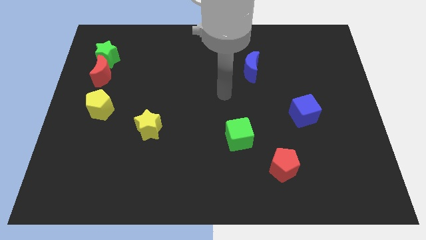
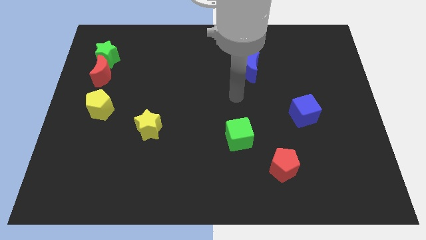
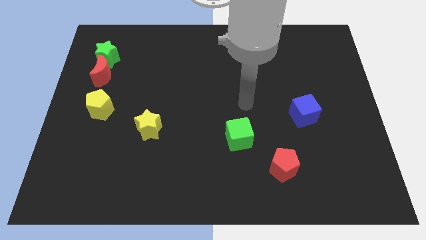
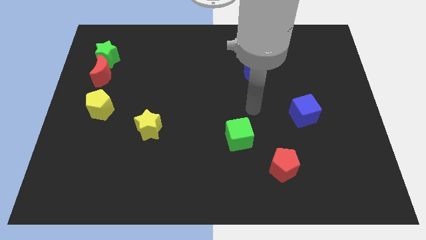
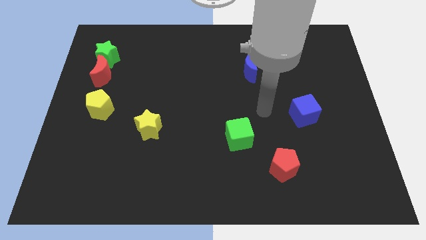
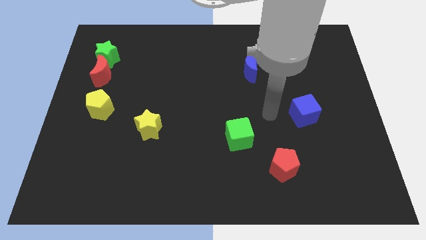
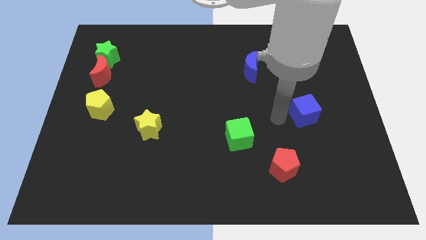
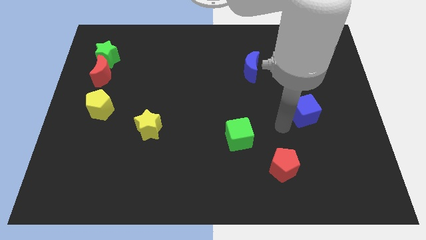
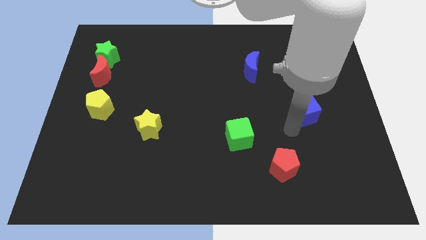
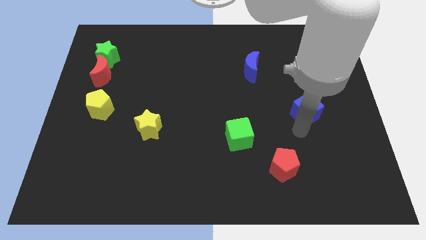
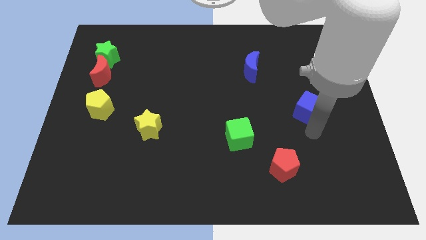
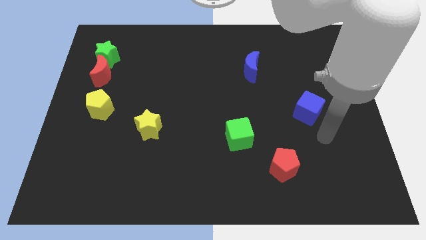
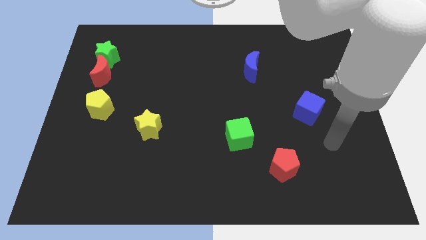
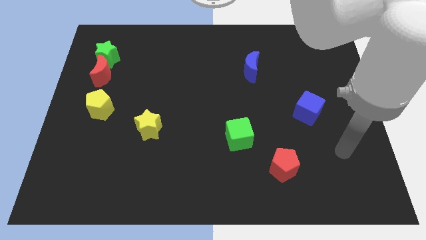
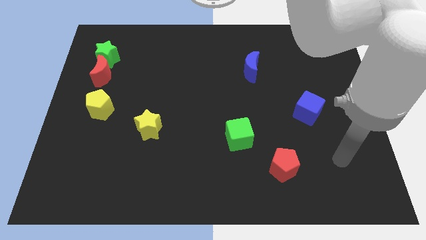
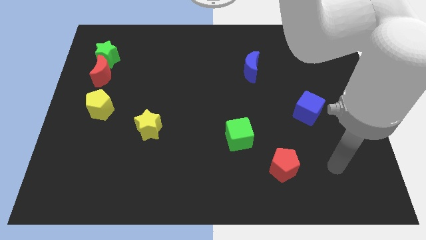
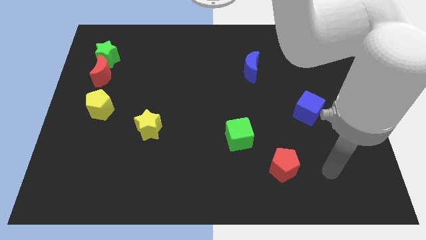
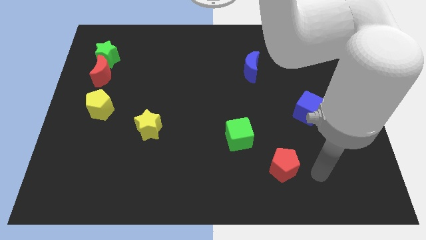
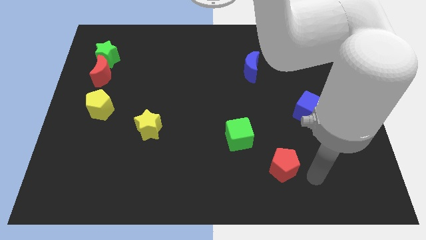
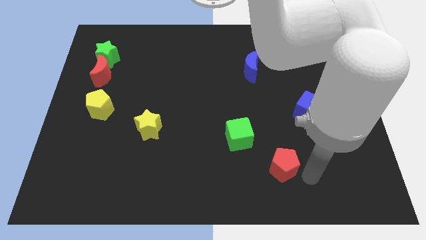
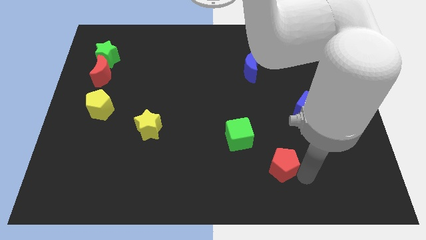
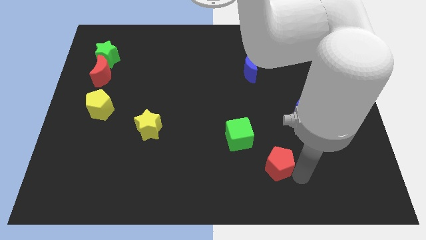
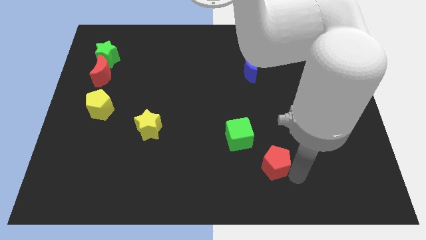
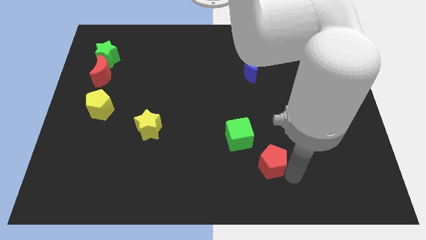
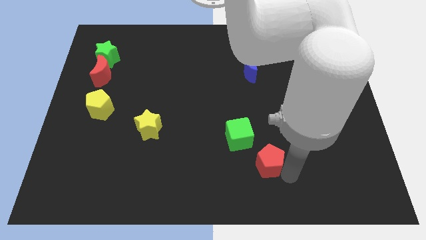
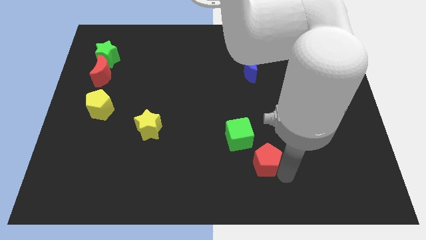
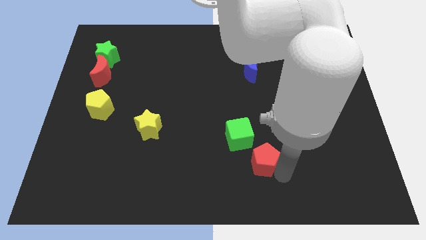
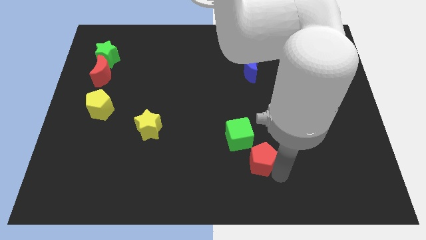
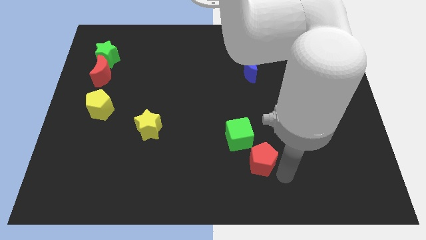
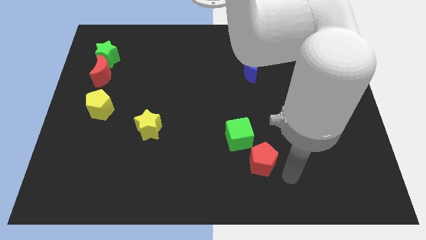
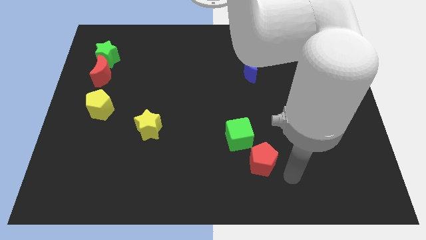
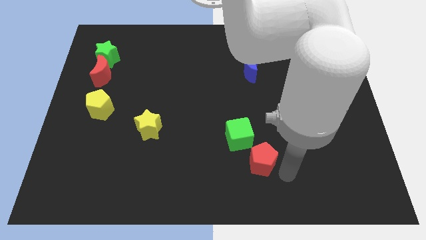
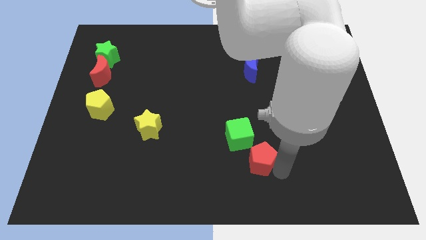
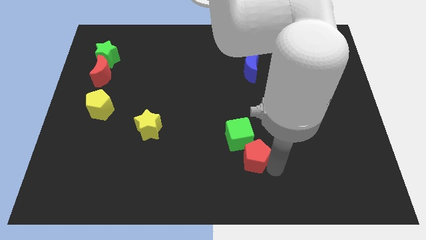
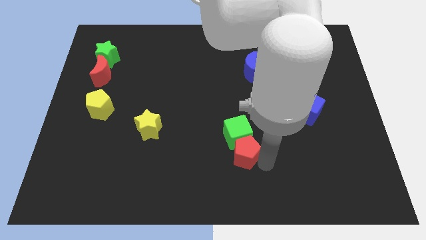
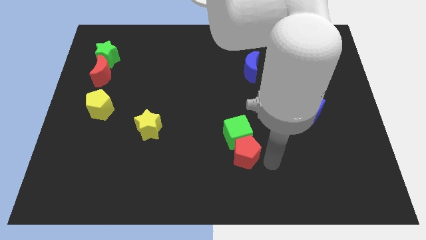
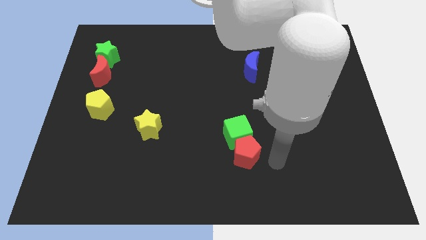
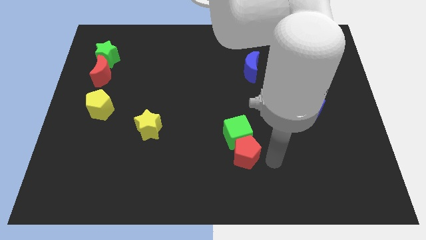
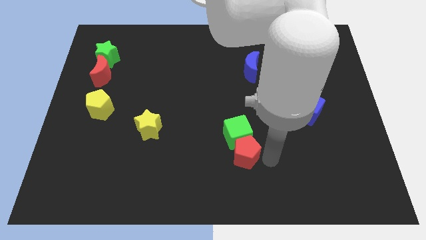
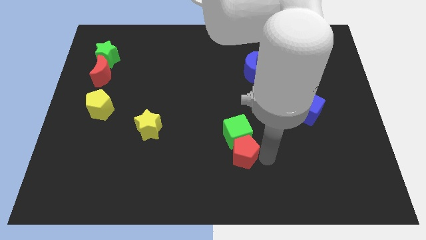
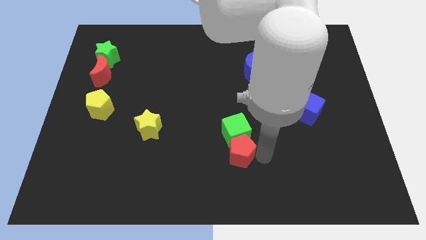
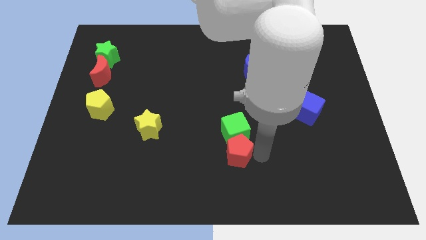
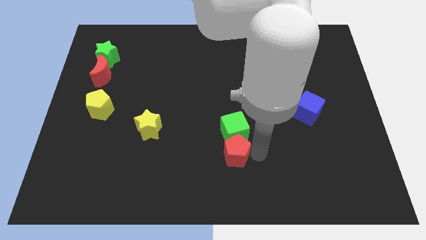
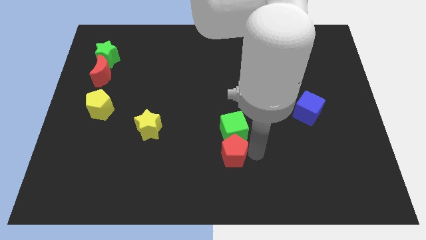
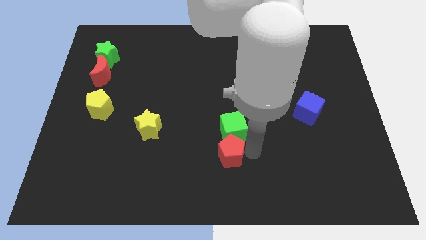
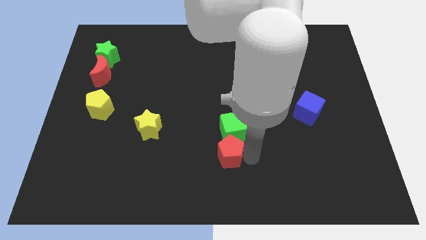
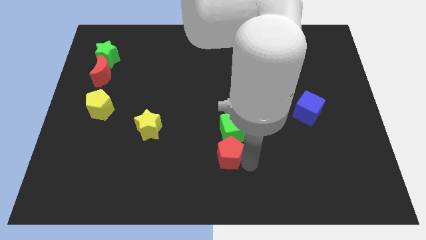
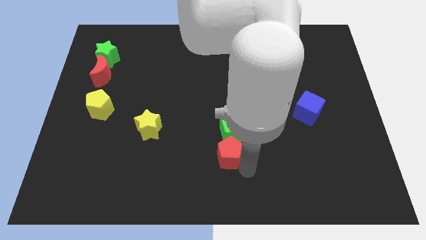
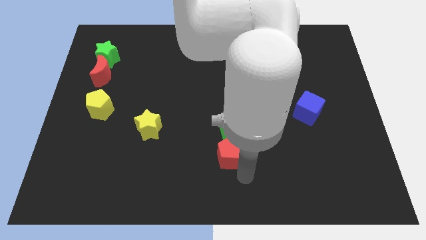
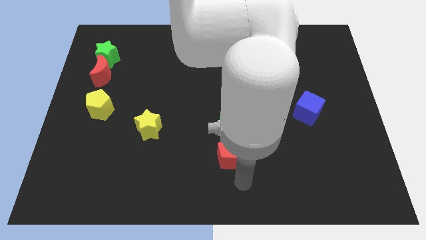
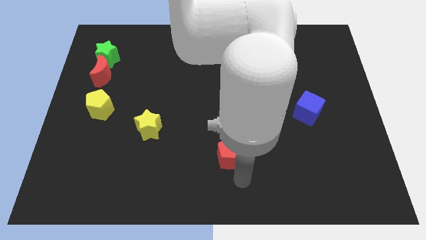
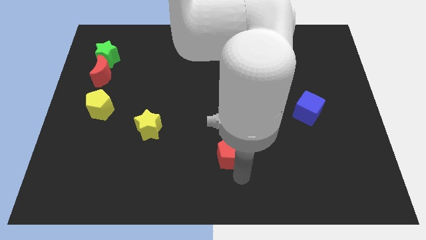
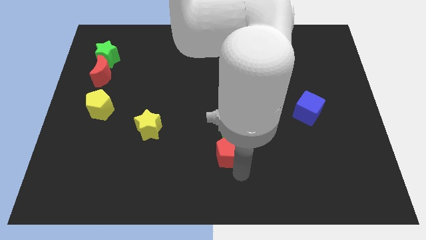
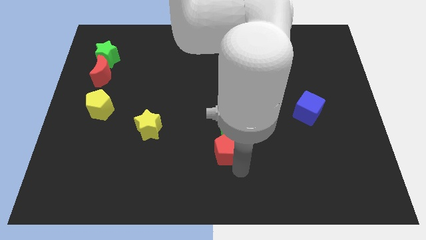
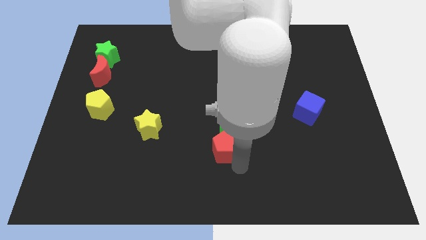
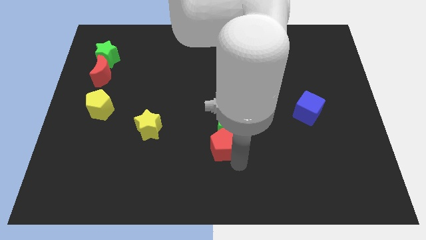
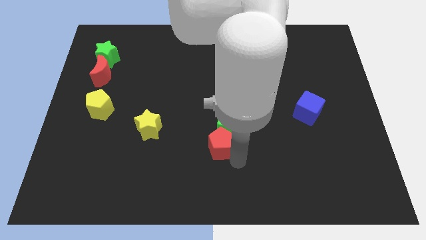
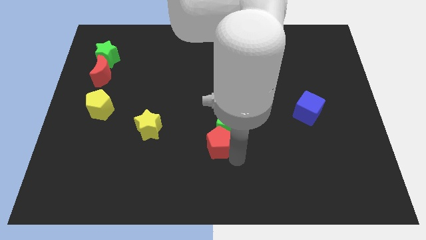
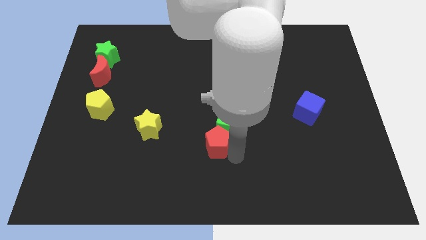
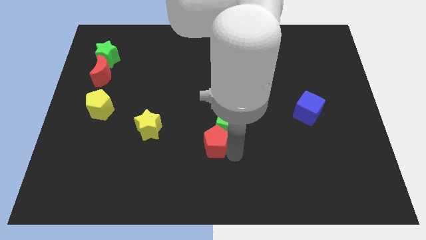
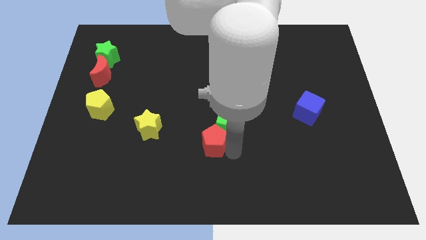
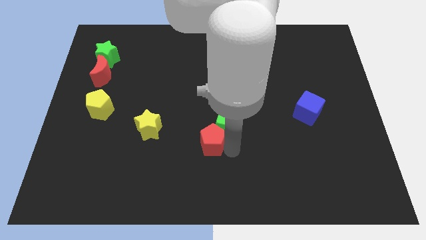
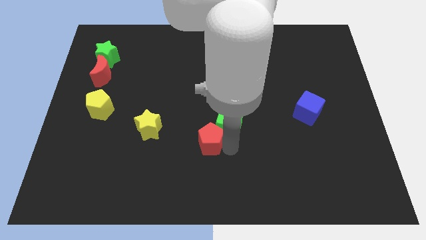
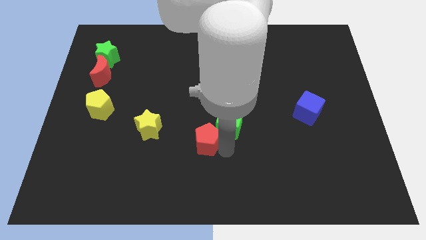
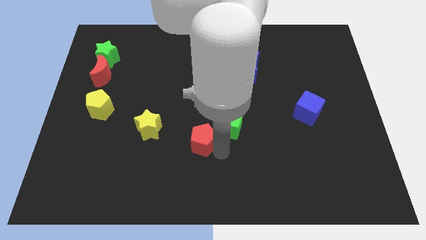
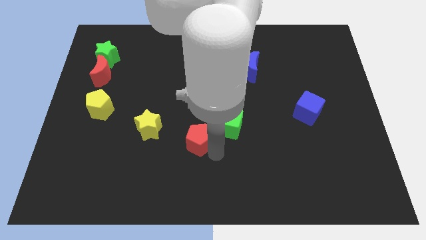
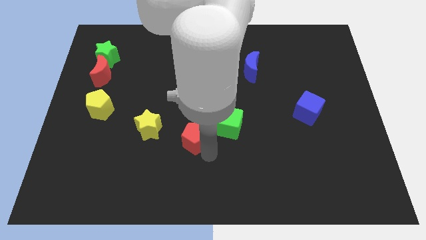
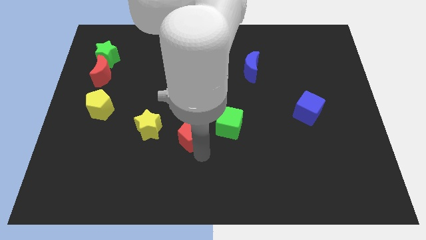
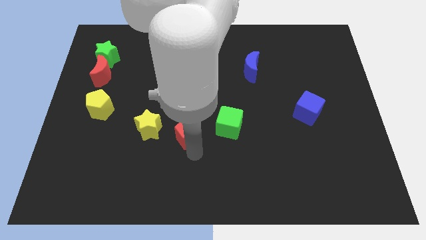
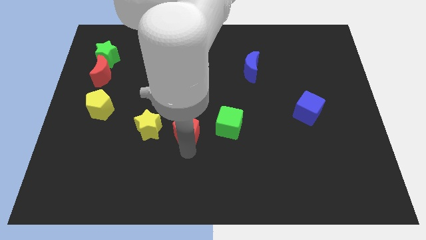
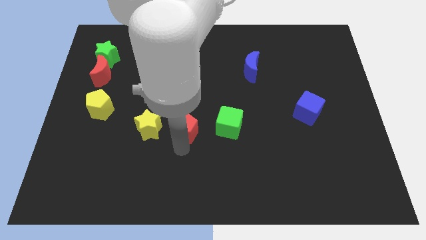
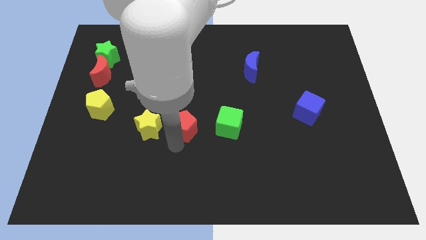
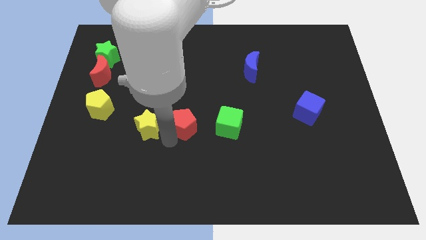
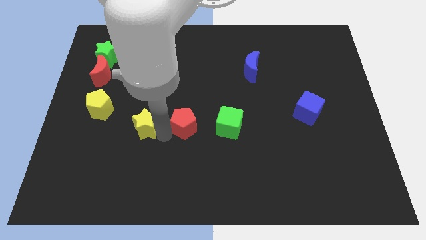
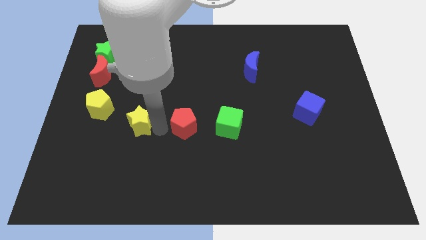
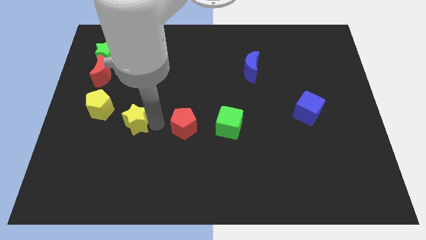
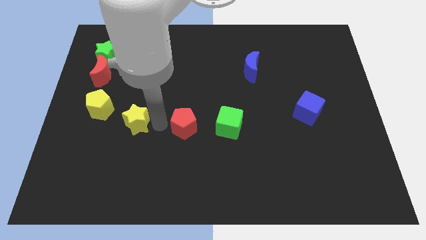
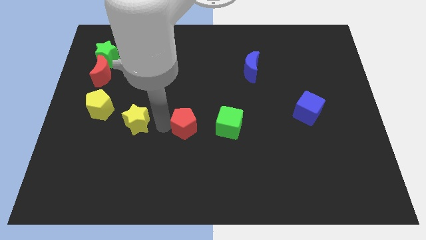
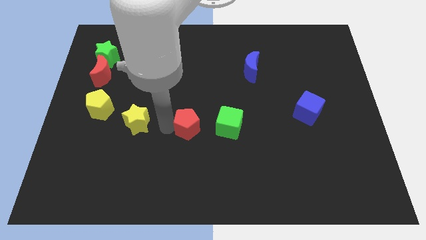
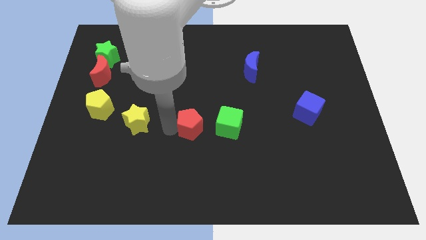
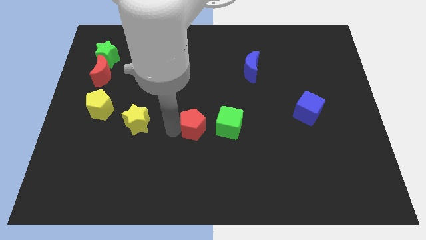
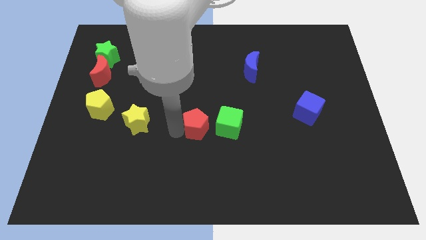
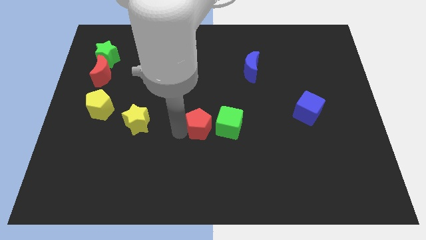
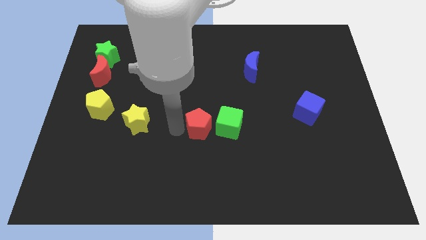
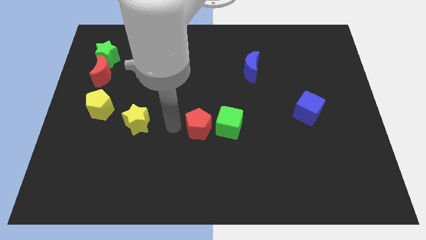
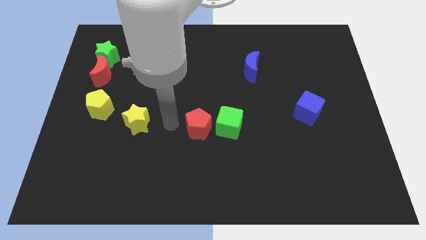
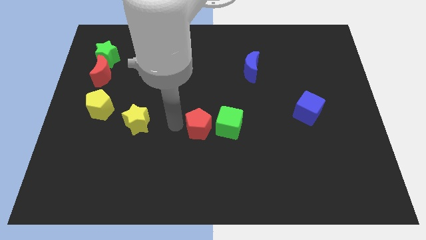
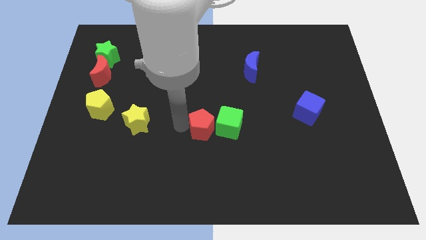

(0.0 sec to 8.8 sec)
move the red pentagon to the top left of the green cube
